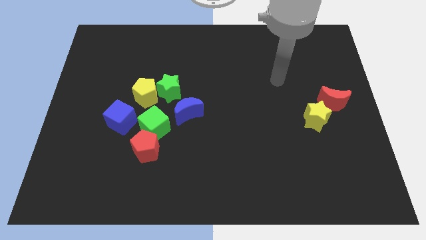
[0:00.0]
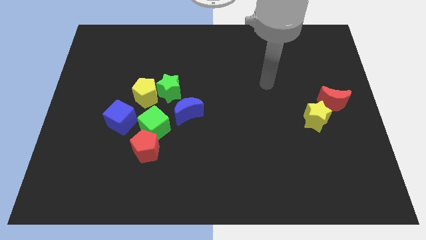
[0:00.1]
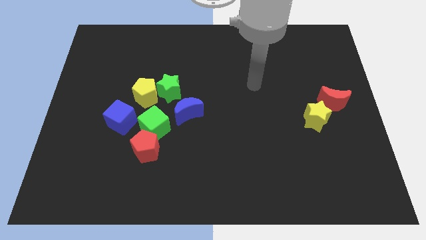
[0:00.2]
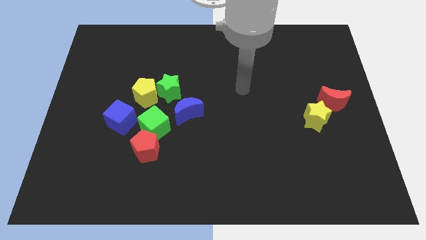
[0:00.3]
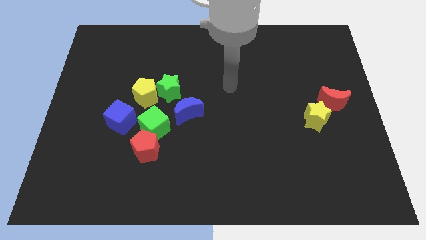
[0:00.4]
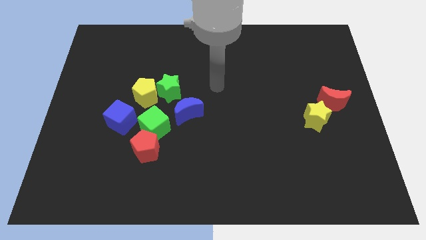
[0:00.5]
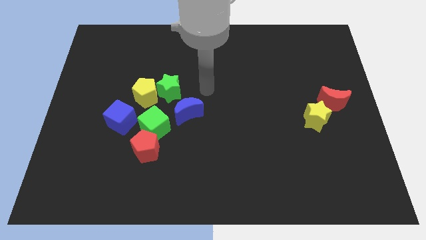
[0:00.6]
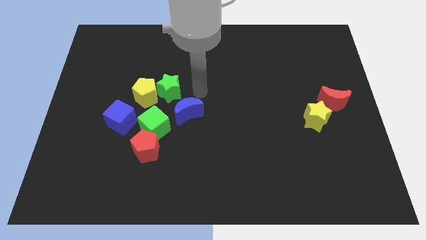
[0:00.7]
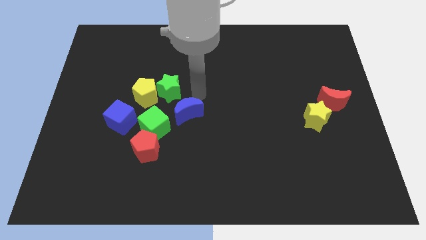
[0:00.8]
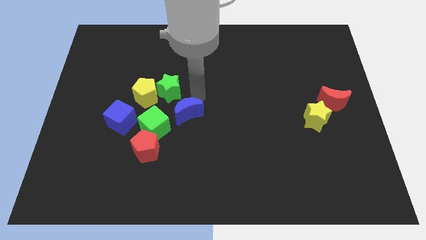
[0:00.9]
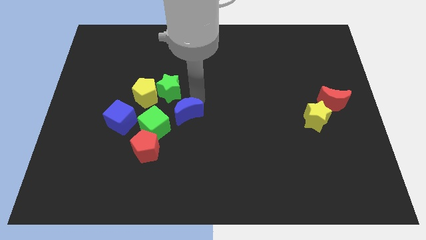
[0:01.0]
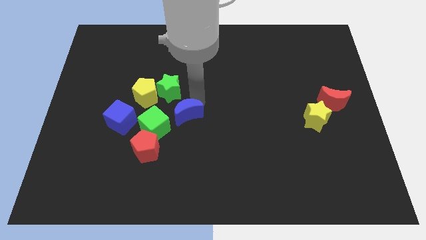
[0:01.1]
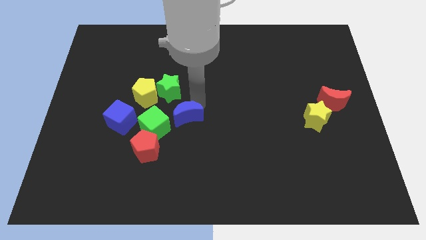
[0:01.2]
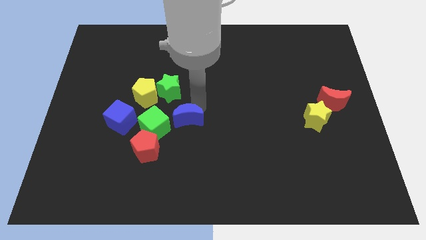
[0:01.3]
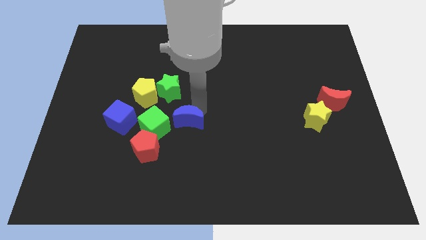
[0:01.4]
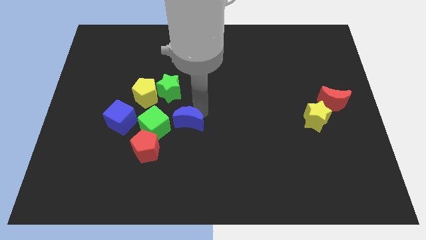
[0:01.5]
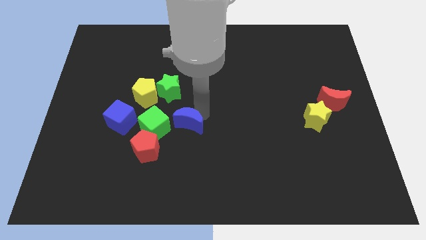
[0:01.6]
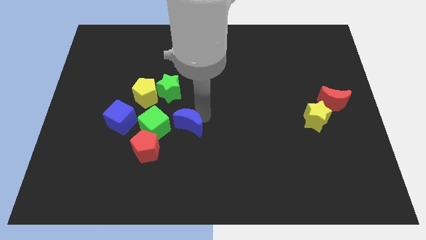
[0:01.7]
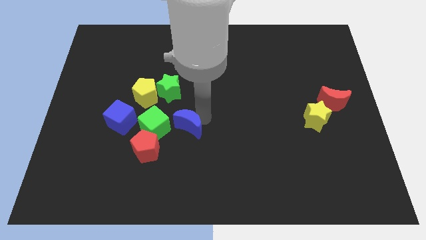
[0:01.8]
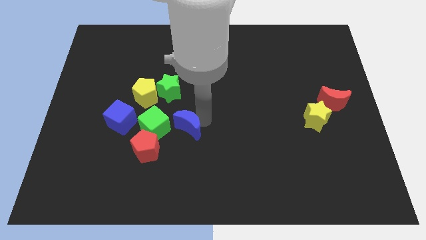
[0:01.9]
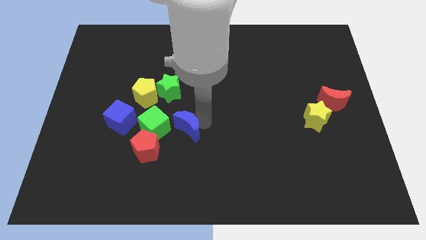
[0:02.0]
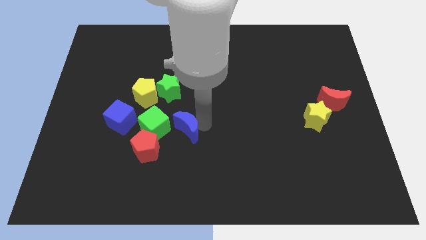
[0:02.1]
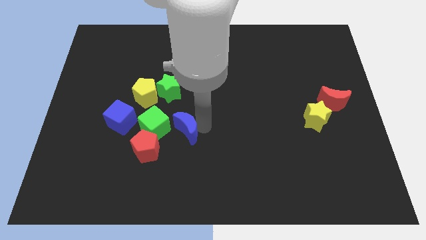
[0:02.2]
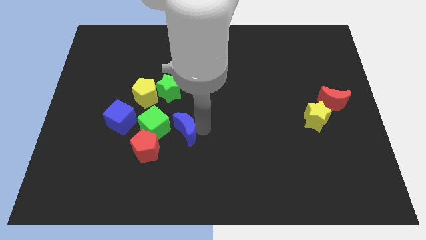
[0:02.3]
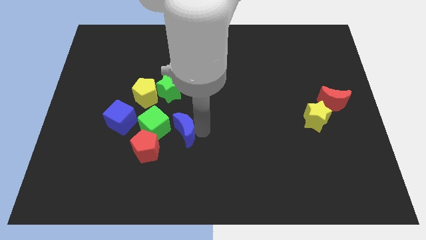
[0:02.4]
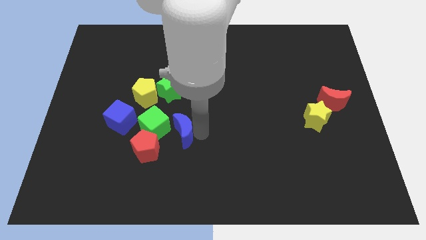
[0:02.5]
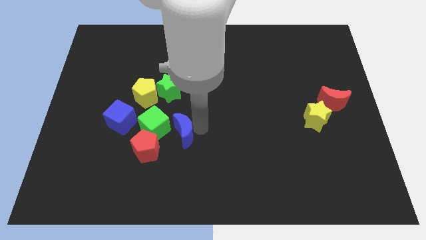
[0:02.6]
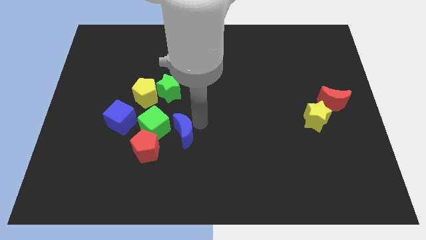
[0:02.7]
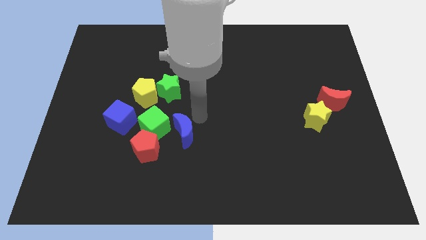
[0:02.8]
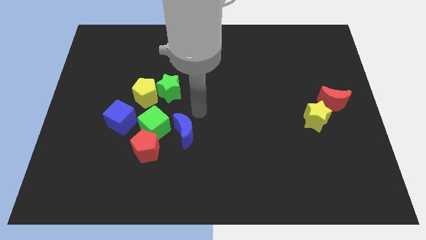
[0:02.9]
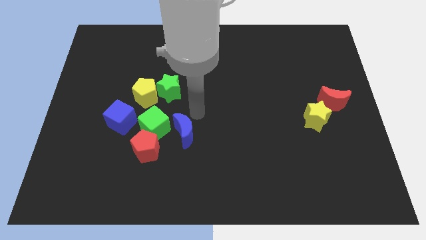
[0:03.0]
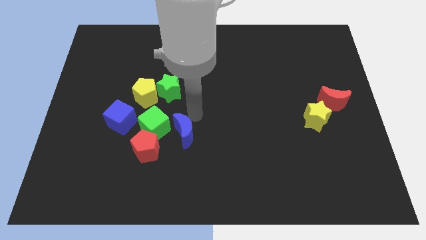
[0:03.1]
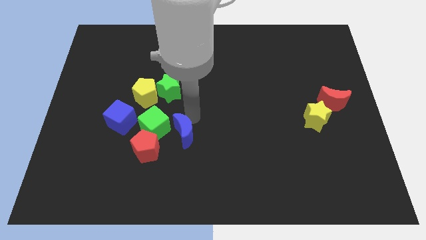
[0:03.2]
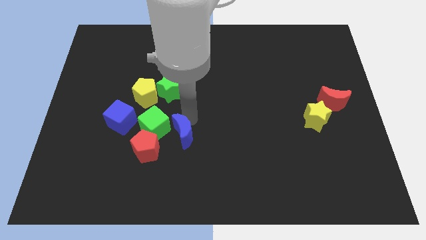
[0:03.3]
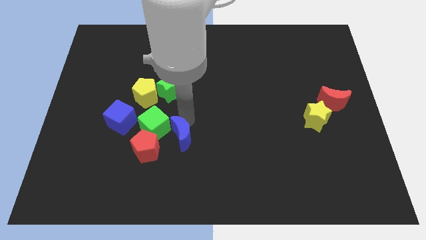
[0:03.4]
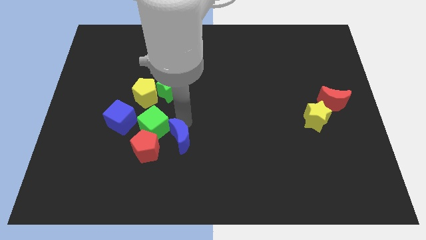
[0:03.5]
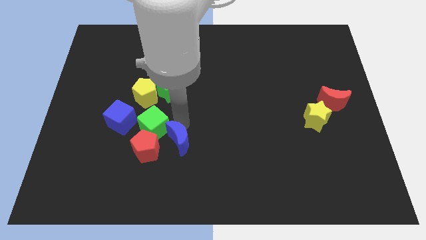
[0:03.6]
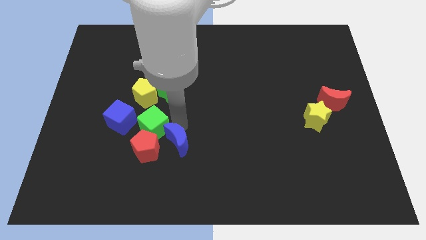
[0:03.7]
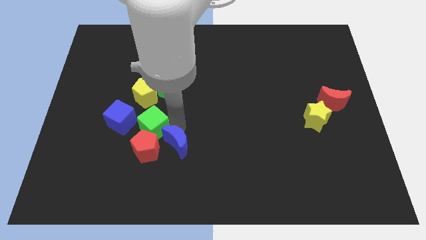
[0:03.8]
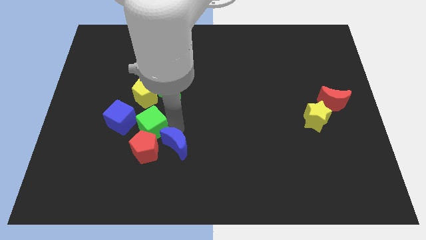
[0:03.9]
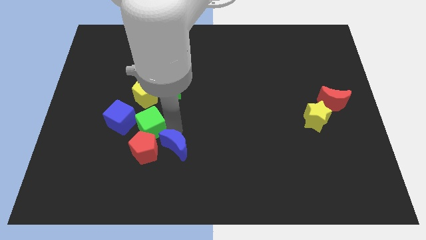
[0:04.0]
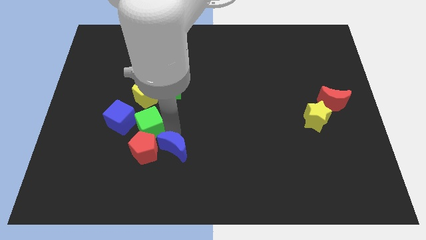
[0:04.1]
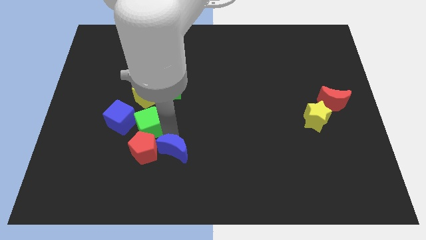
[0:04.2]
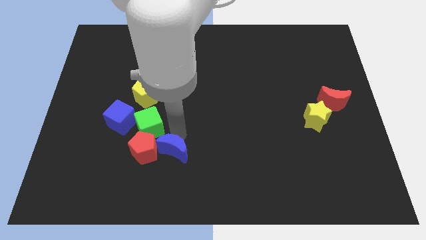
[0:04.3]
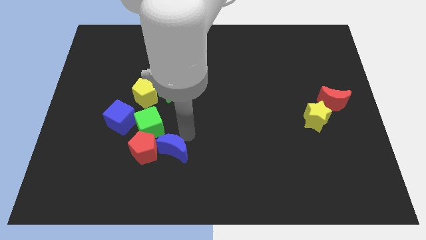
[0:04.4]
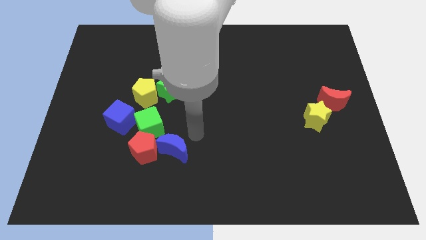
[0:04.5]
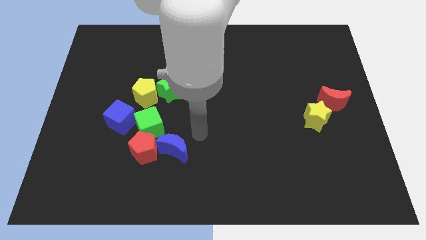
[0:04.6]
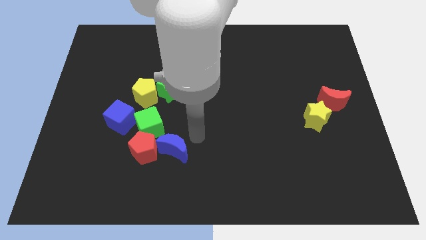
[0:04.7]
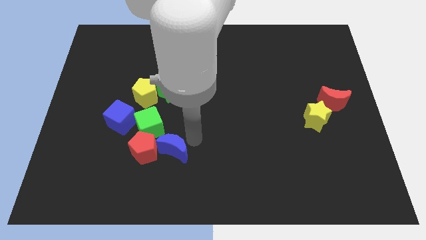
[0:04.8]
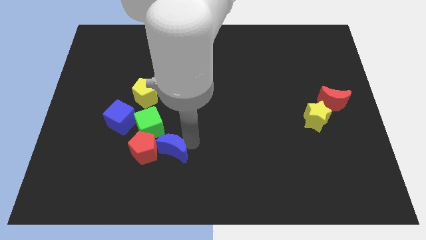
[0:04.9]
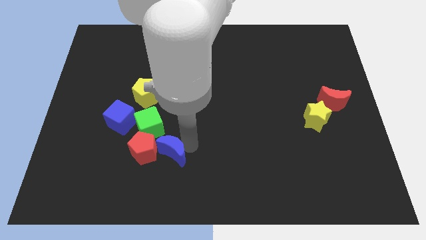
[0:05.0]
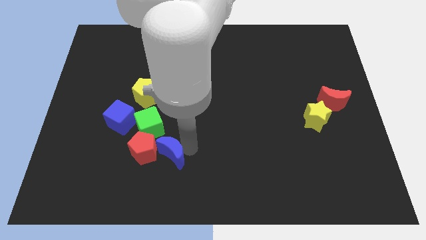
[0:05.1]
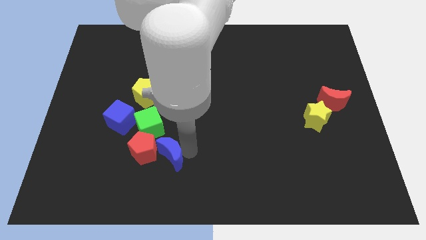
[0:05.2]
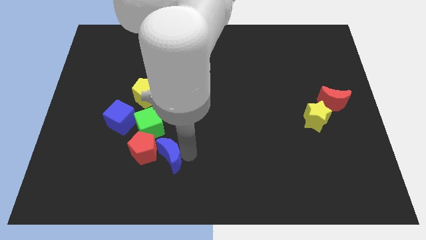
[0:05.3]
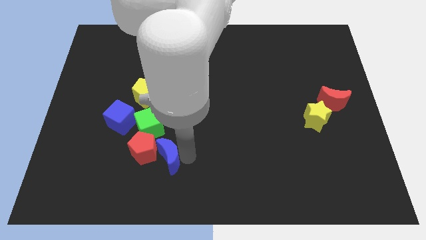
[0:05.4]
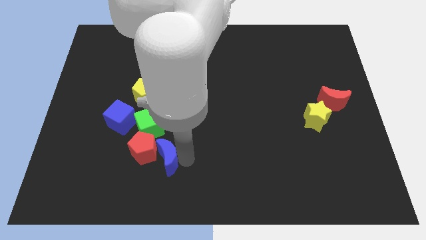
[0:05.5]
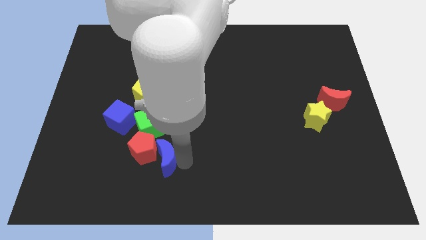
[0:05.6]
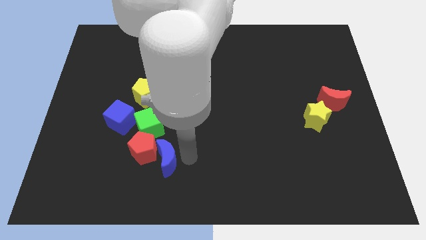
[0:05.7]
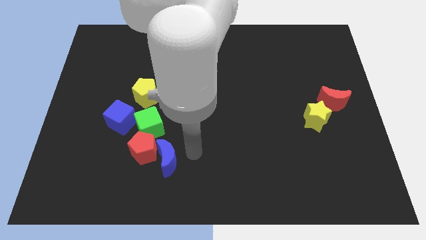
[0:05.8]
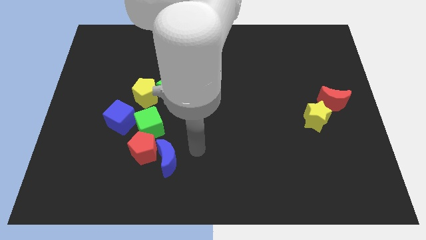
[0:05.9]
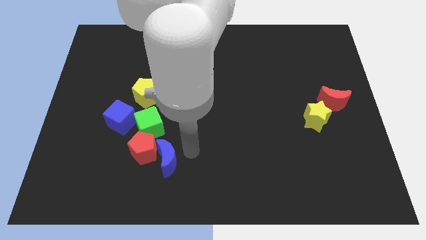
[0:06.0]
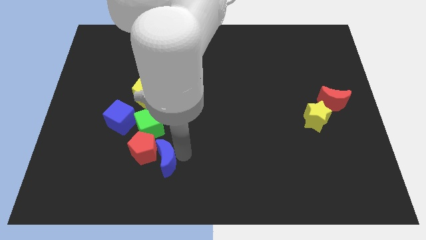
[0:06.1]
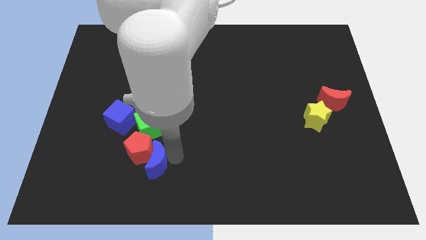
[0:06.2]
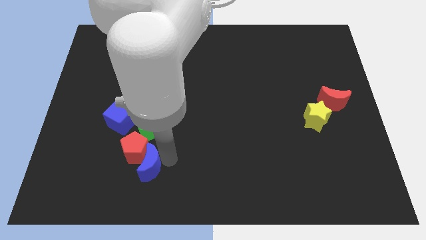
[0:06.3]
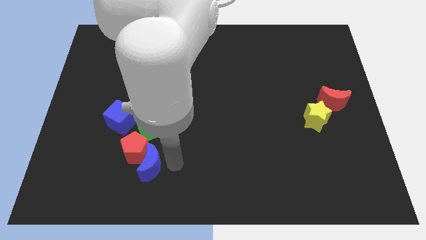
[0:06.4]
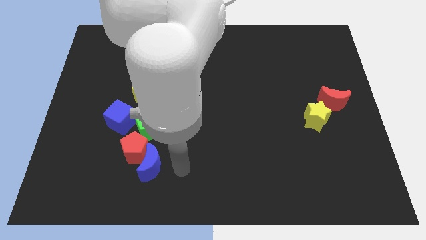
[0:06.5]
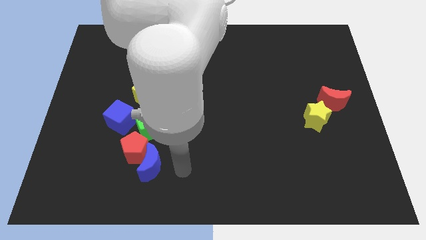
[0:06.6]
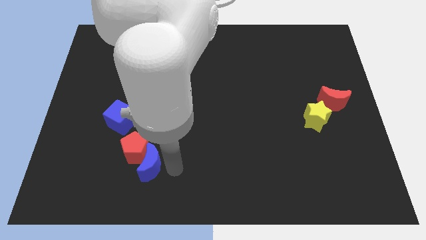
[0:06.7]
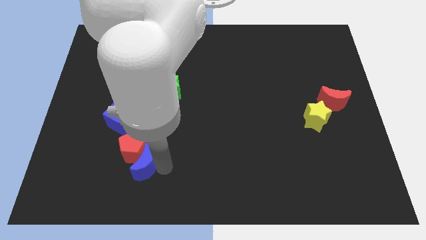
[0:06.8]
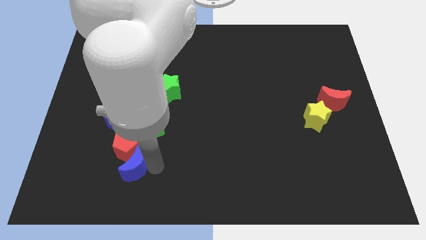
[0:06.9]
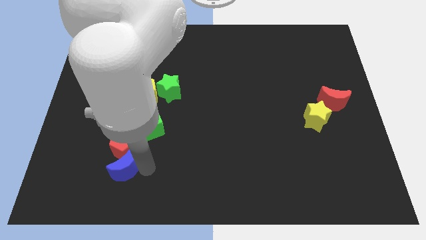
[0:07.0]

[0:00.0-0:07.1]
slide the blue moon to the bottom of the blue cube

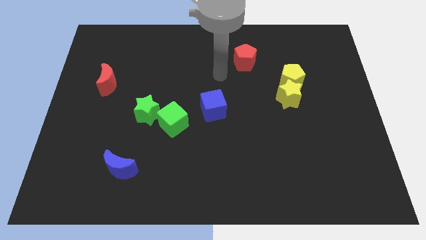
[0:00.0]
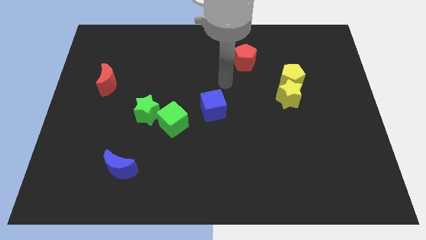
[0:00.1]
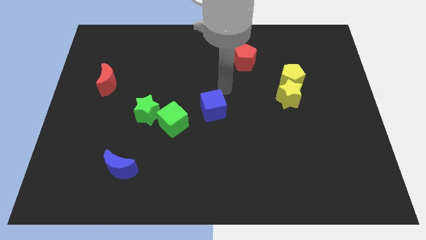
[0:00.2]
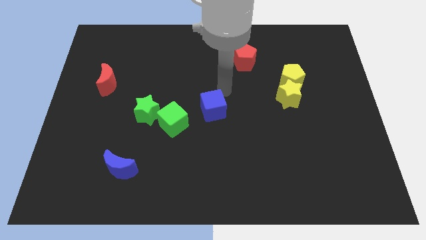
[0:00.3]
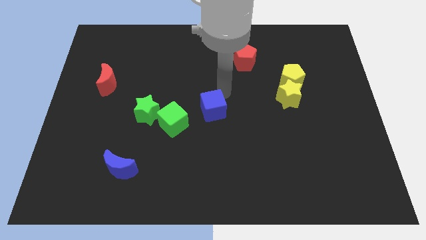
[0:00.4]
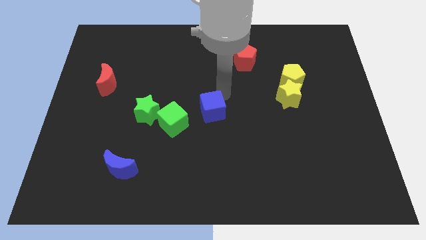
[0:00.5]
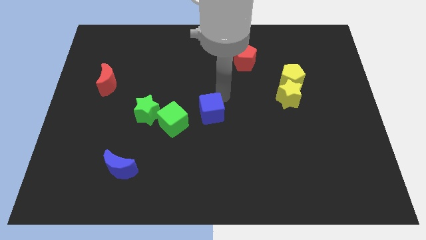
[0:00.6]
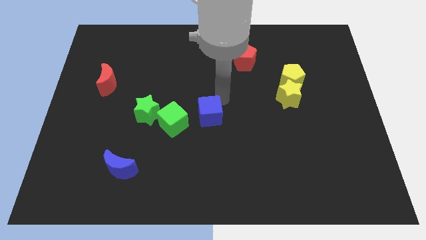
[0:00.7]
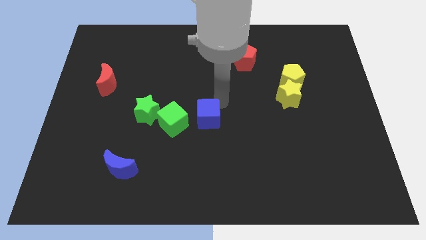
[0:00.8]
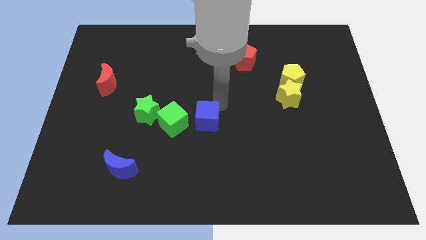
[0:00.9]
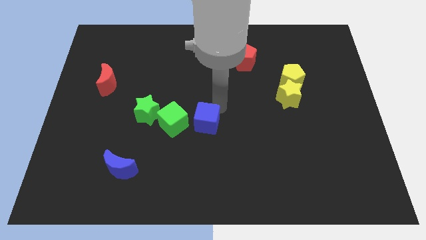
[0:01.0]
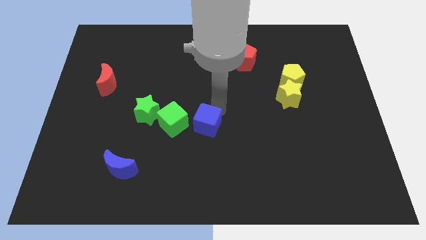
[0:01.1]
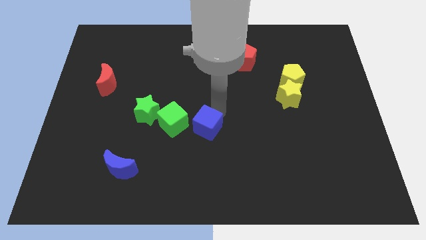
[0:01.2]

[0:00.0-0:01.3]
slide the blue cube diagonally down and to the right of the green cube
